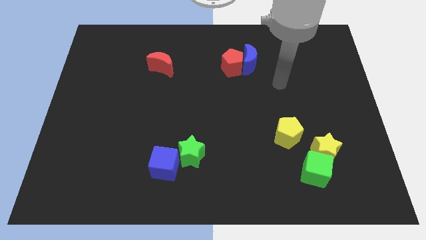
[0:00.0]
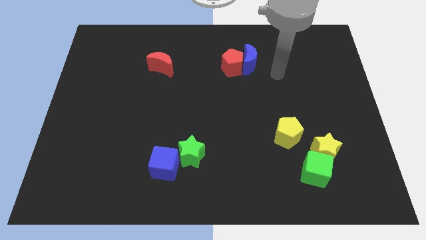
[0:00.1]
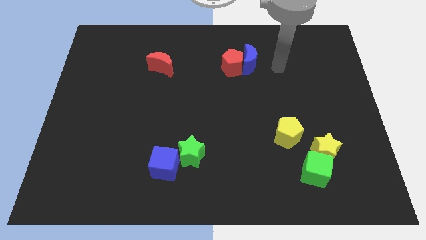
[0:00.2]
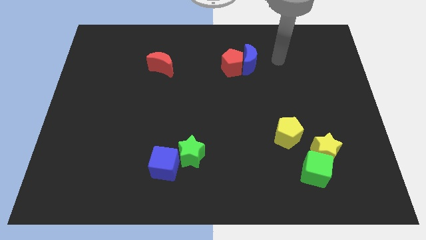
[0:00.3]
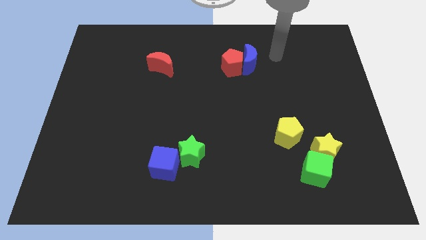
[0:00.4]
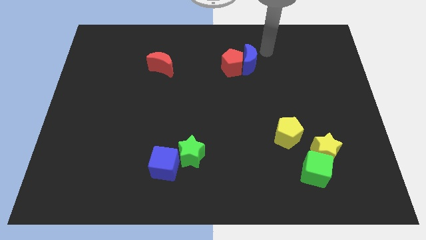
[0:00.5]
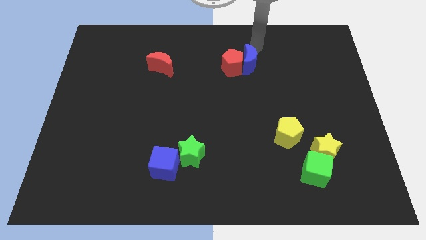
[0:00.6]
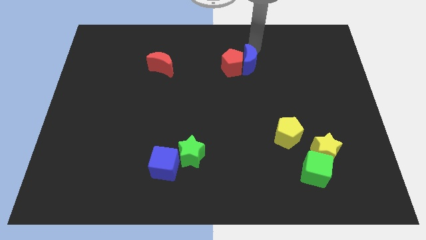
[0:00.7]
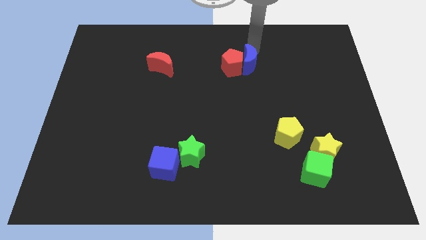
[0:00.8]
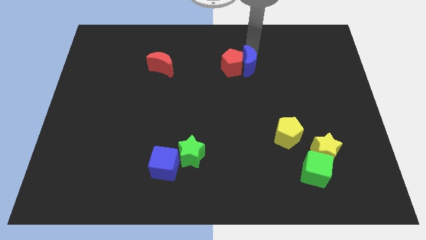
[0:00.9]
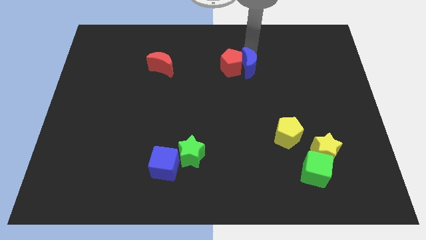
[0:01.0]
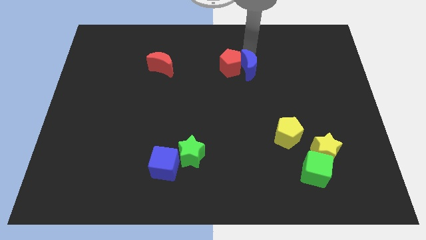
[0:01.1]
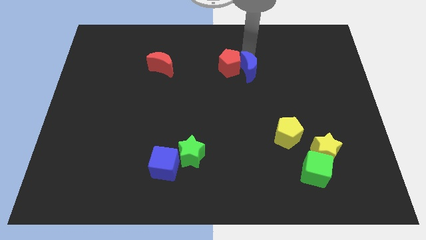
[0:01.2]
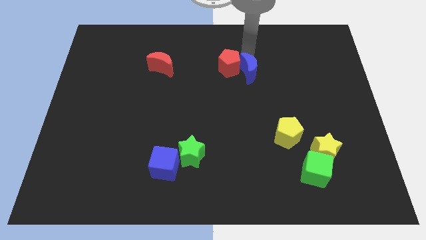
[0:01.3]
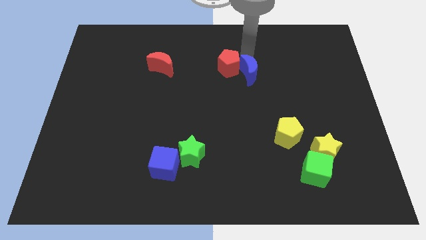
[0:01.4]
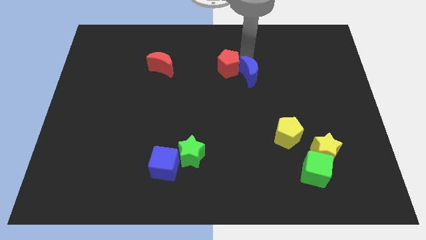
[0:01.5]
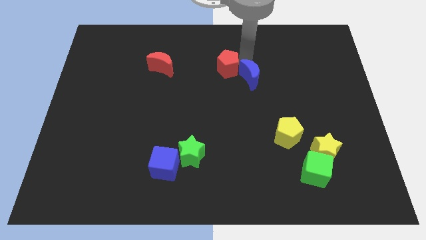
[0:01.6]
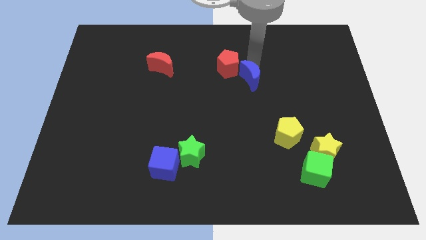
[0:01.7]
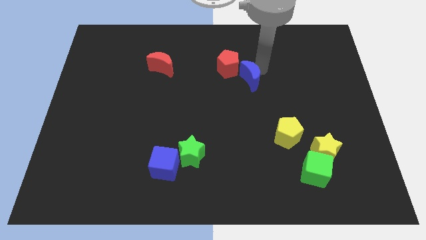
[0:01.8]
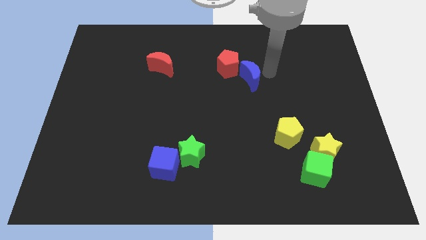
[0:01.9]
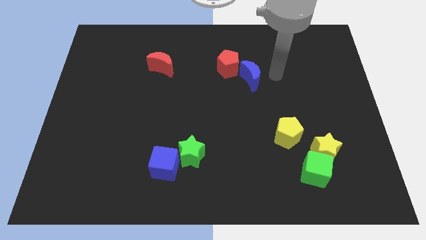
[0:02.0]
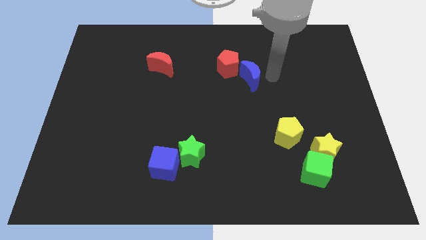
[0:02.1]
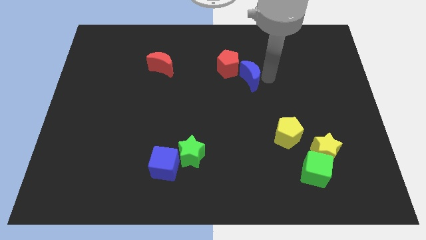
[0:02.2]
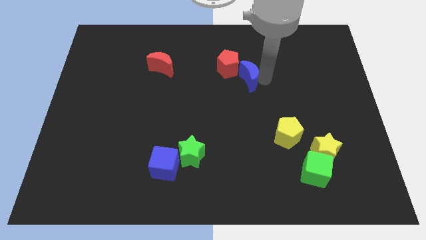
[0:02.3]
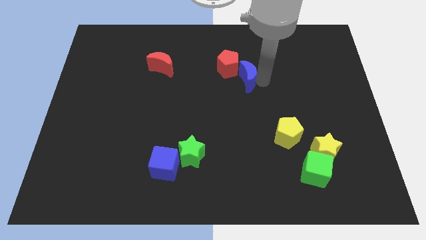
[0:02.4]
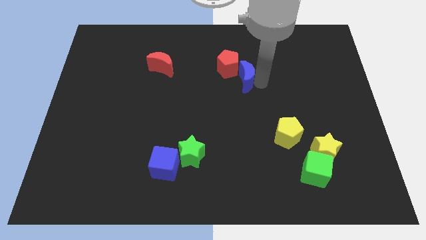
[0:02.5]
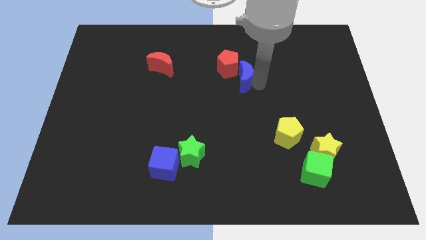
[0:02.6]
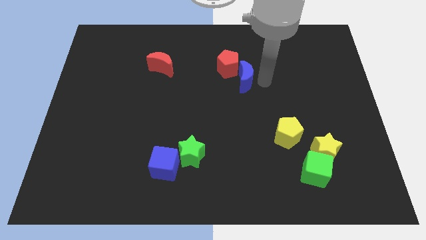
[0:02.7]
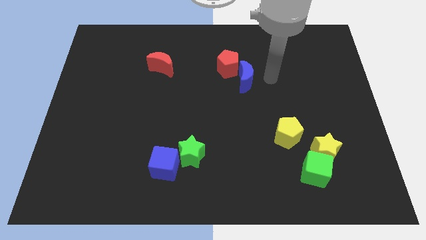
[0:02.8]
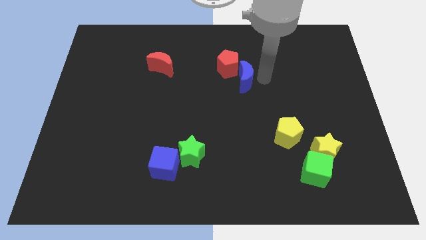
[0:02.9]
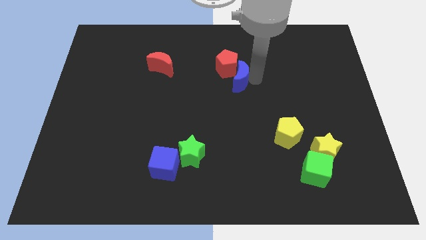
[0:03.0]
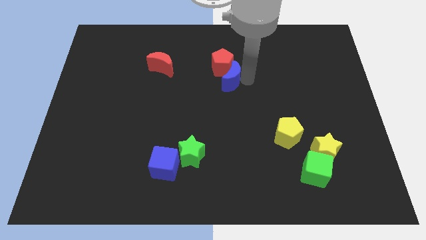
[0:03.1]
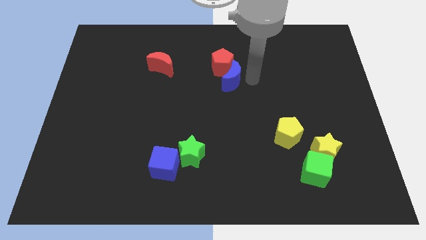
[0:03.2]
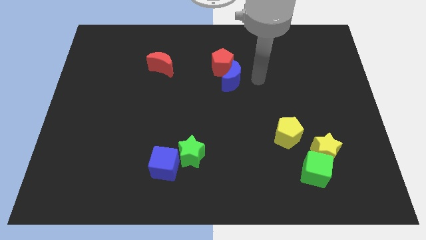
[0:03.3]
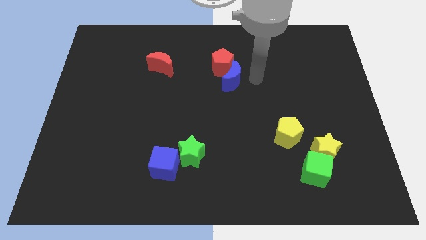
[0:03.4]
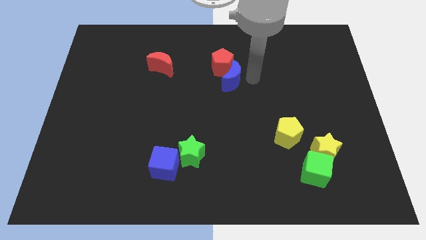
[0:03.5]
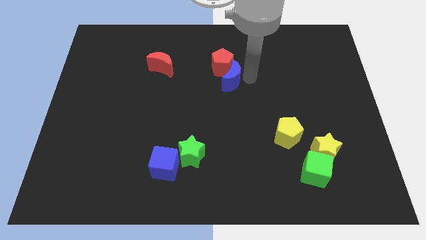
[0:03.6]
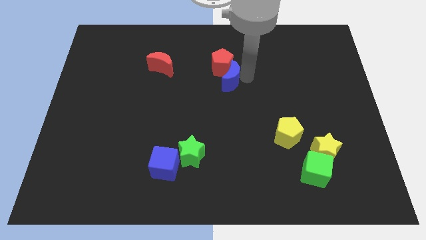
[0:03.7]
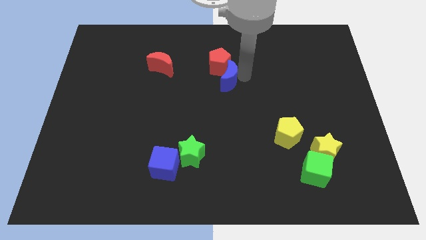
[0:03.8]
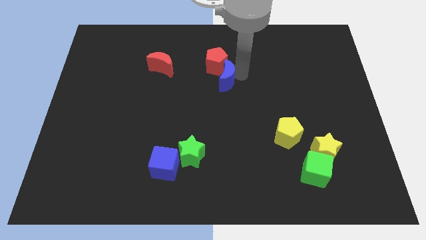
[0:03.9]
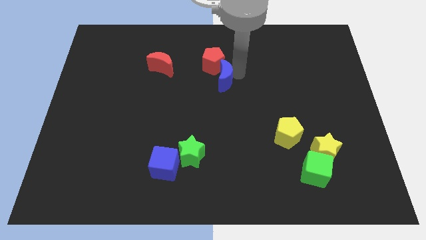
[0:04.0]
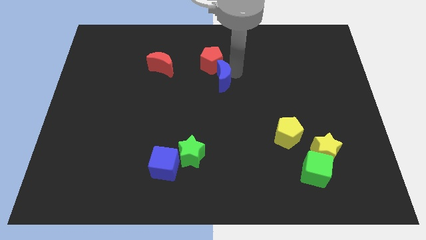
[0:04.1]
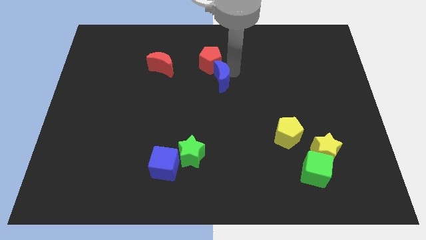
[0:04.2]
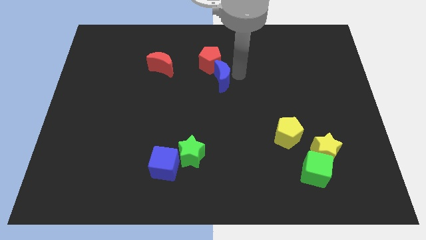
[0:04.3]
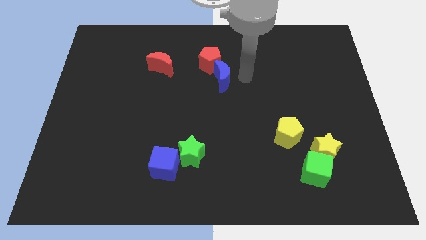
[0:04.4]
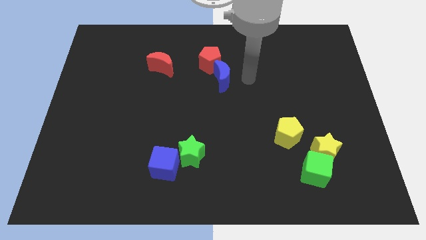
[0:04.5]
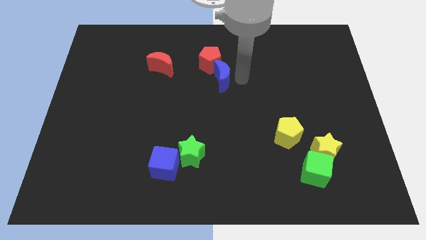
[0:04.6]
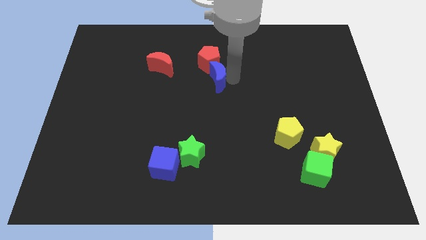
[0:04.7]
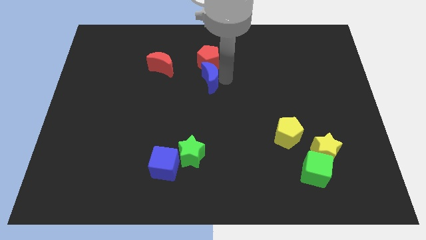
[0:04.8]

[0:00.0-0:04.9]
move the blue moon diagonally down and to the left of the red pentagon

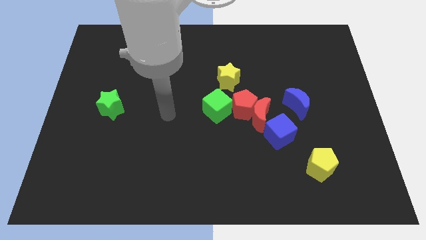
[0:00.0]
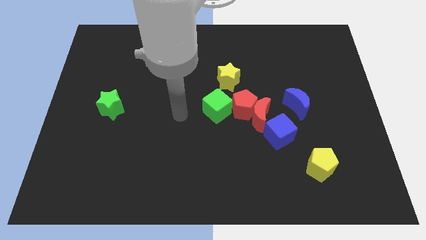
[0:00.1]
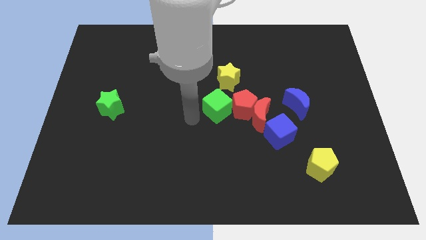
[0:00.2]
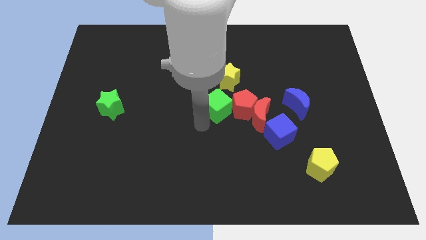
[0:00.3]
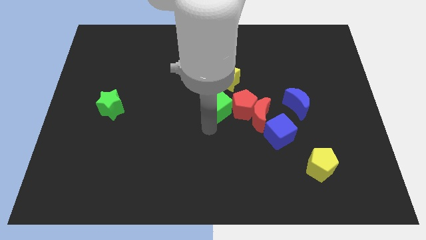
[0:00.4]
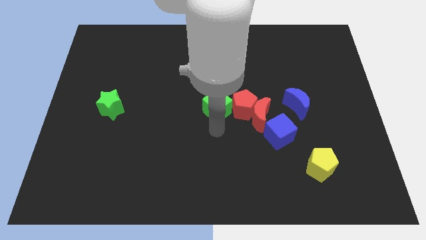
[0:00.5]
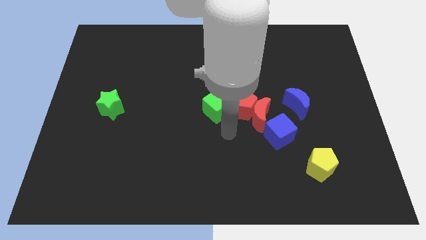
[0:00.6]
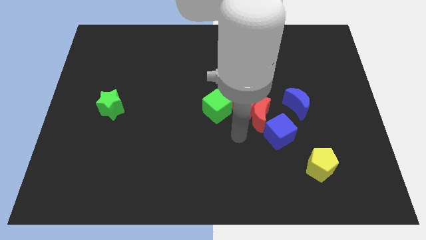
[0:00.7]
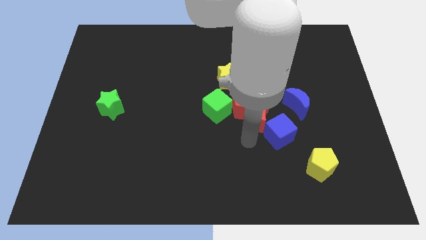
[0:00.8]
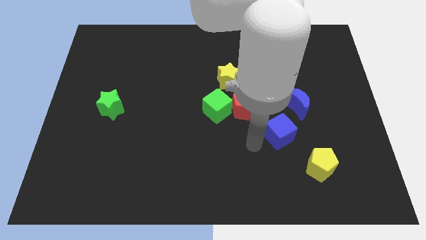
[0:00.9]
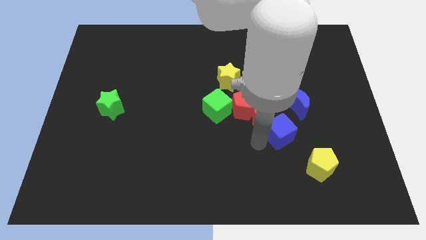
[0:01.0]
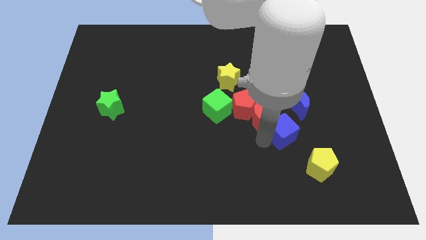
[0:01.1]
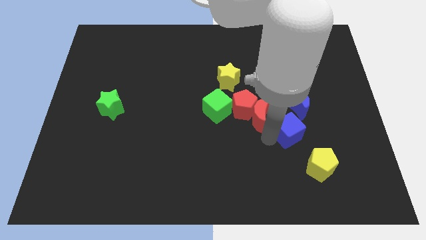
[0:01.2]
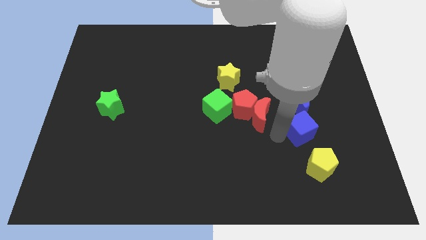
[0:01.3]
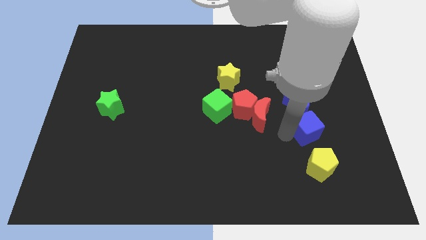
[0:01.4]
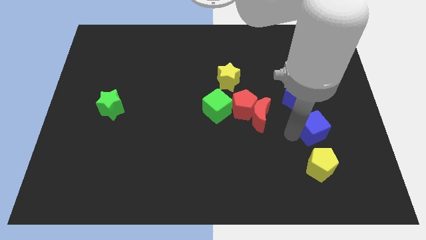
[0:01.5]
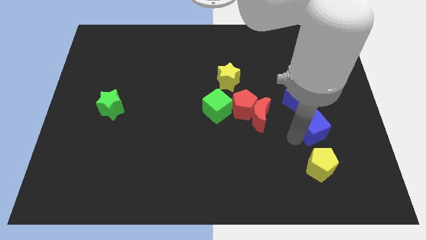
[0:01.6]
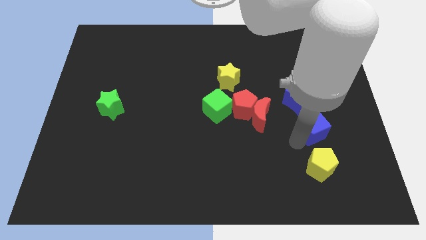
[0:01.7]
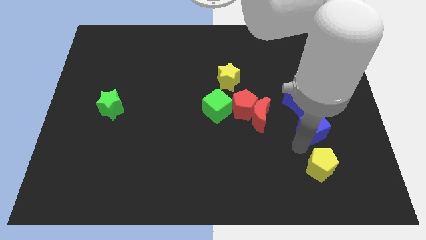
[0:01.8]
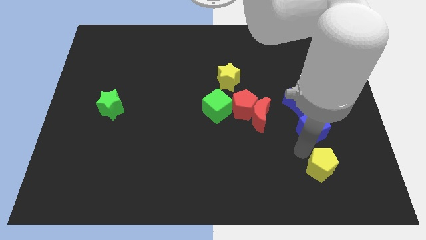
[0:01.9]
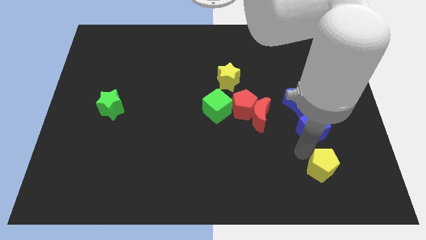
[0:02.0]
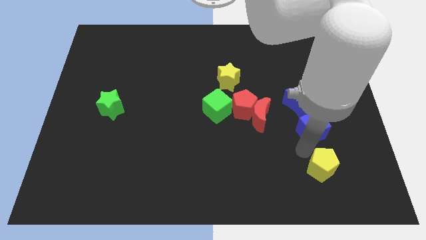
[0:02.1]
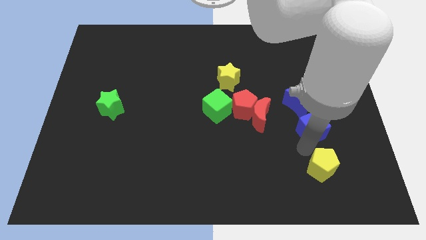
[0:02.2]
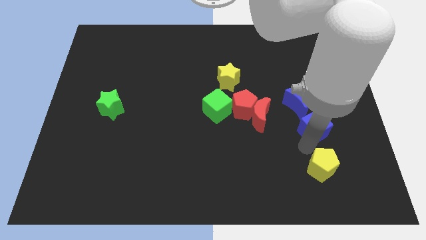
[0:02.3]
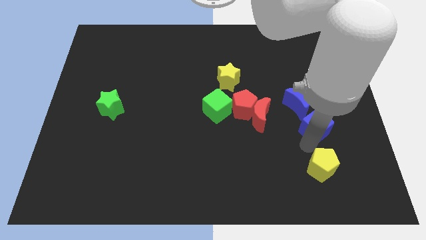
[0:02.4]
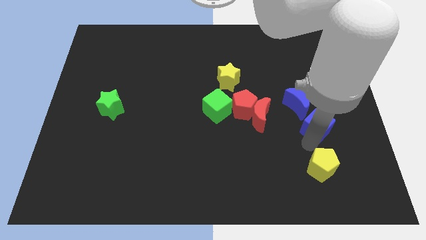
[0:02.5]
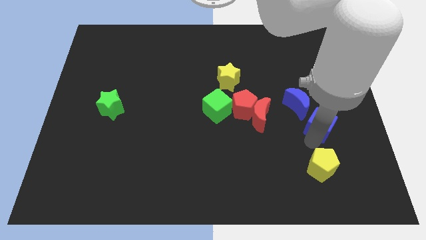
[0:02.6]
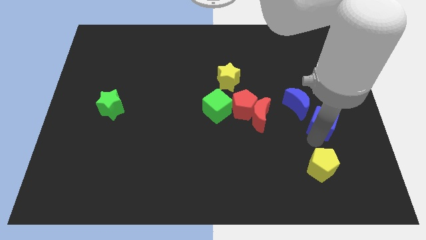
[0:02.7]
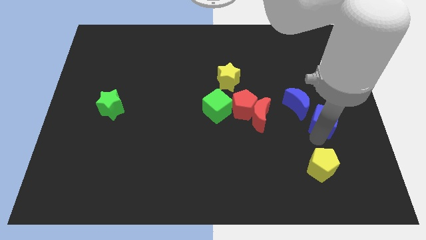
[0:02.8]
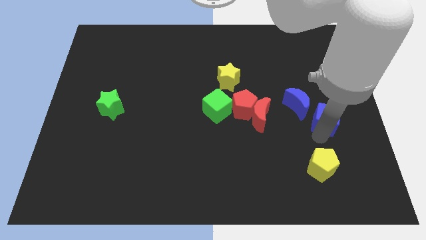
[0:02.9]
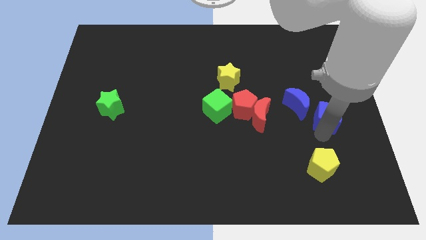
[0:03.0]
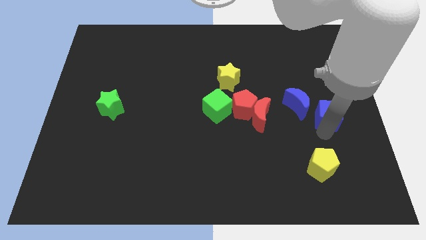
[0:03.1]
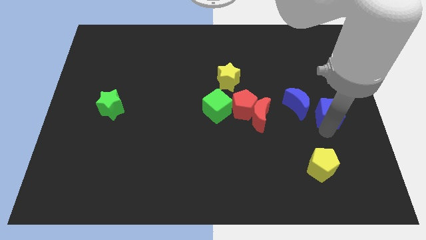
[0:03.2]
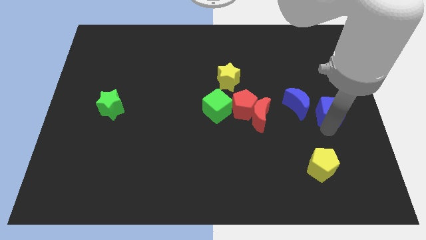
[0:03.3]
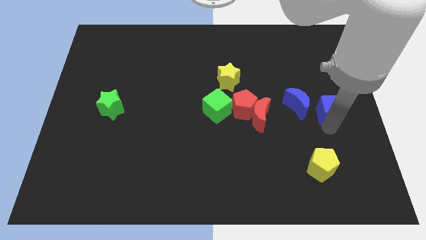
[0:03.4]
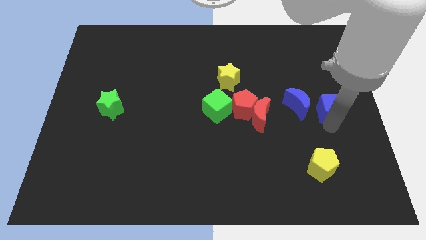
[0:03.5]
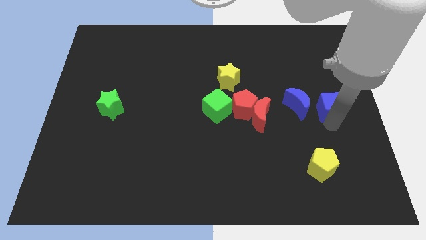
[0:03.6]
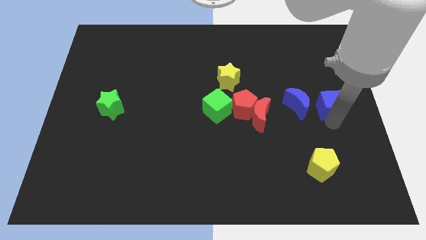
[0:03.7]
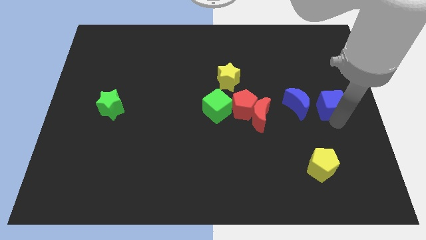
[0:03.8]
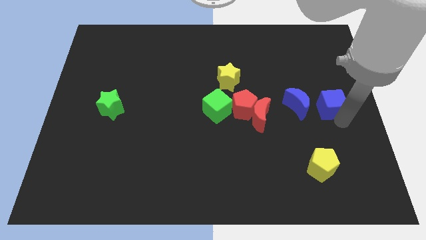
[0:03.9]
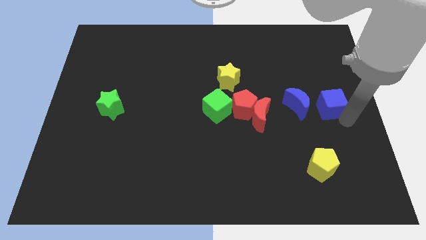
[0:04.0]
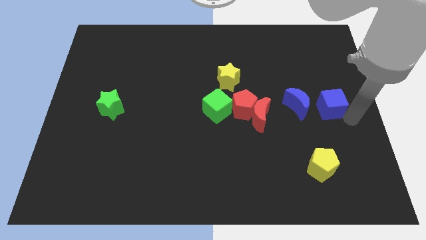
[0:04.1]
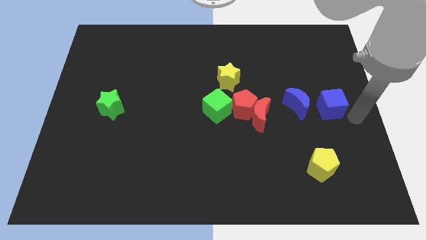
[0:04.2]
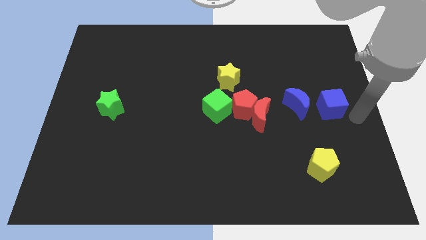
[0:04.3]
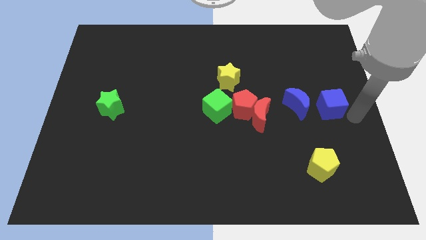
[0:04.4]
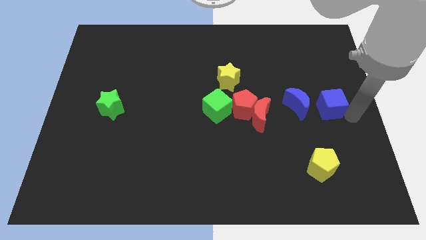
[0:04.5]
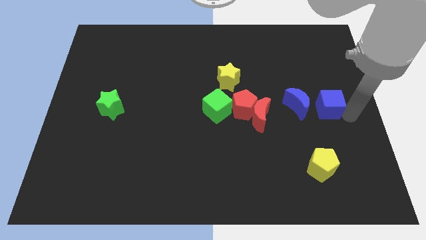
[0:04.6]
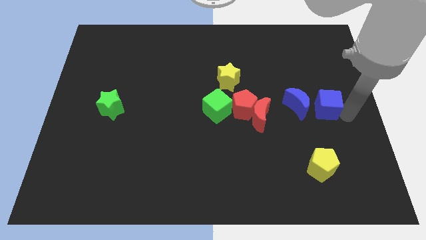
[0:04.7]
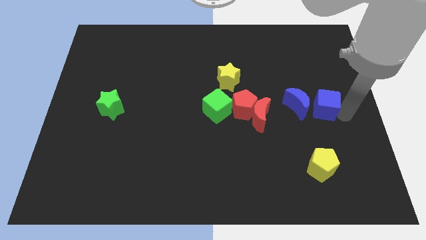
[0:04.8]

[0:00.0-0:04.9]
move the blue cube to the top right side of the blue moon
